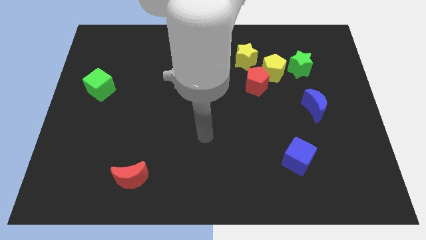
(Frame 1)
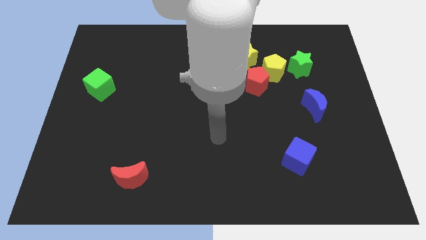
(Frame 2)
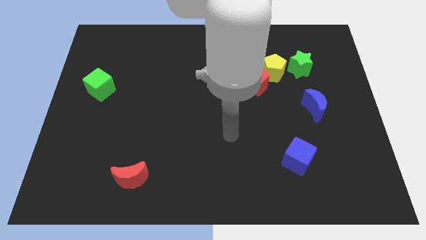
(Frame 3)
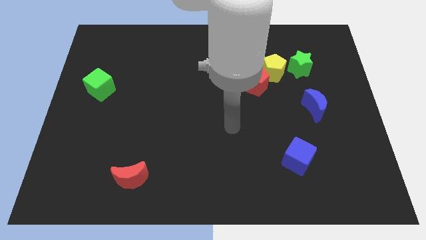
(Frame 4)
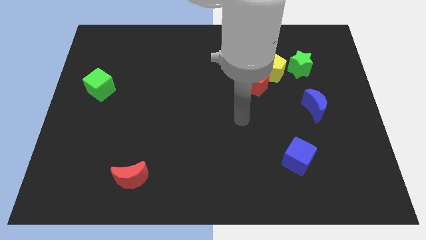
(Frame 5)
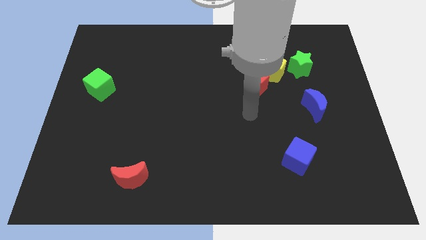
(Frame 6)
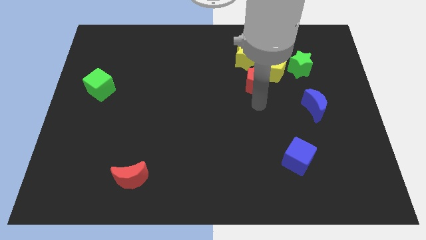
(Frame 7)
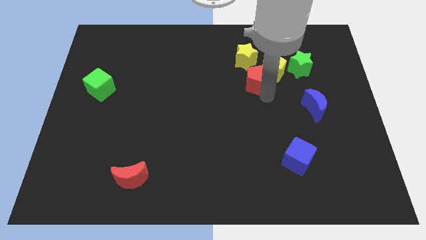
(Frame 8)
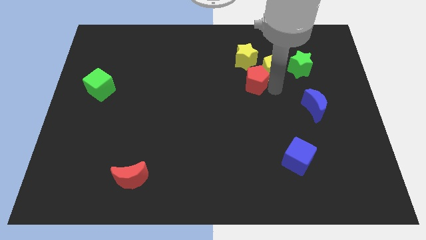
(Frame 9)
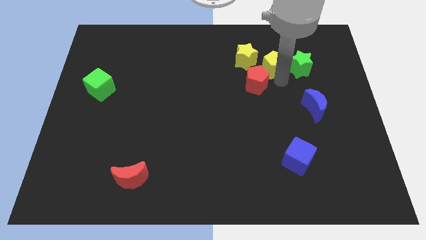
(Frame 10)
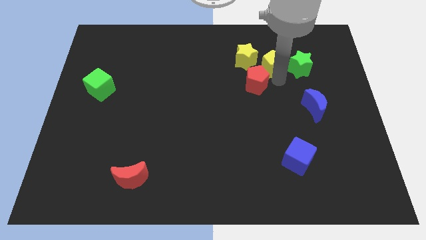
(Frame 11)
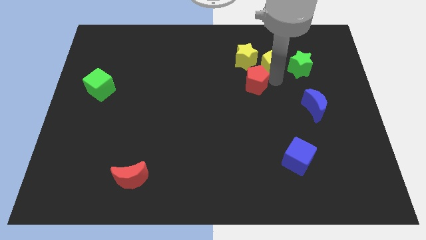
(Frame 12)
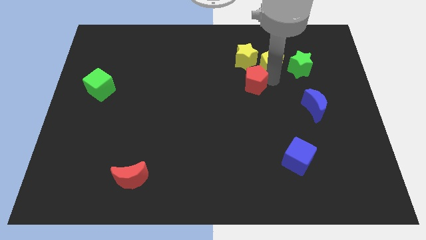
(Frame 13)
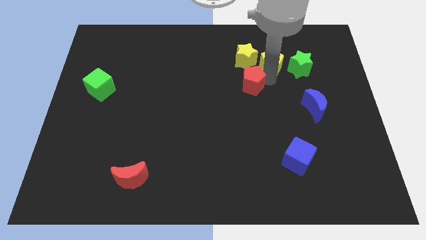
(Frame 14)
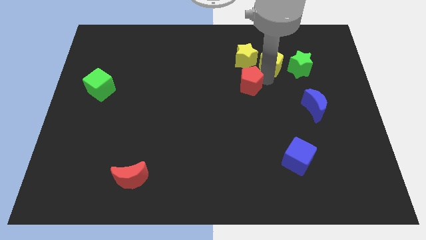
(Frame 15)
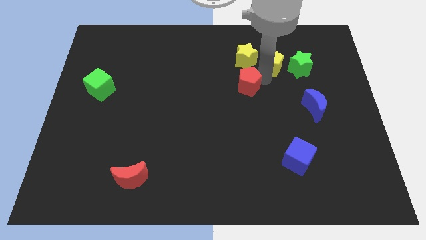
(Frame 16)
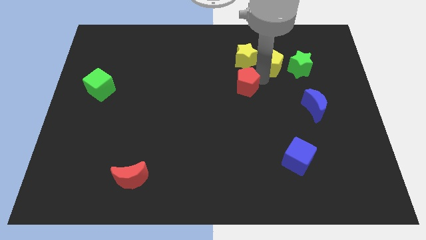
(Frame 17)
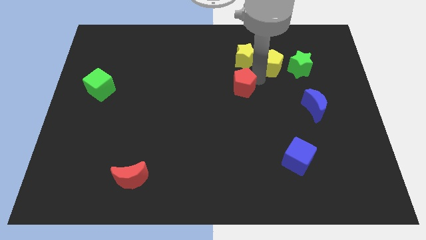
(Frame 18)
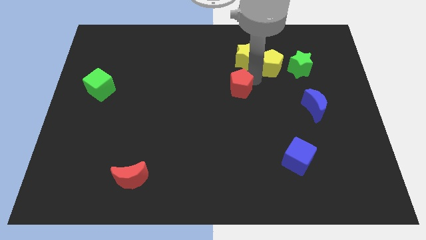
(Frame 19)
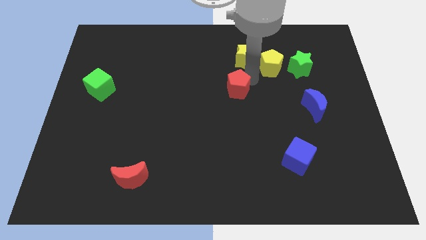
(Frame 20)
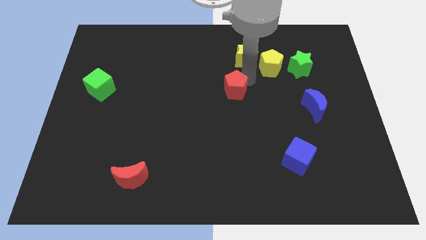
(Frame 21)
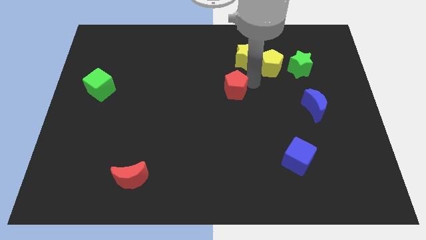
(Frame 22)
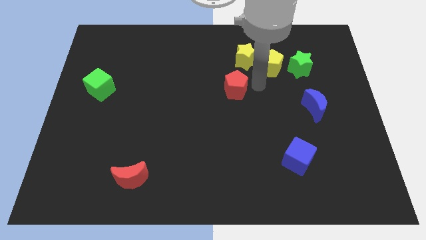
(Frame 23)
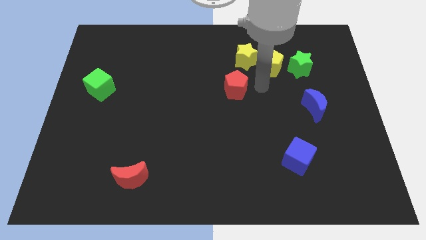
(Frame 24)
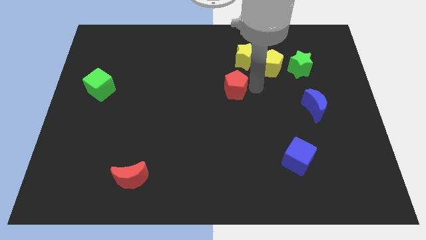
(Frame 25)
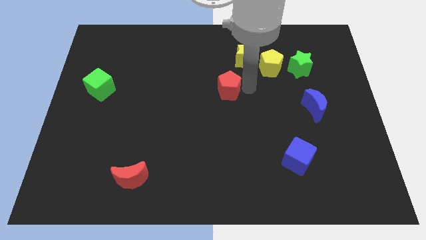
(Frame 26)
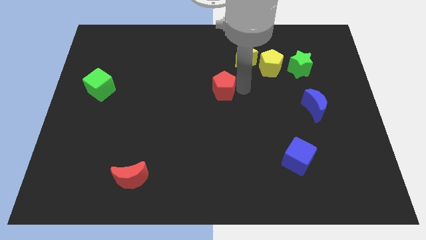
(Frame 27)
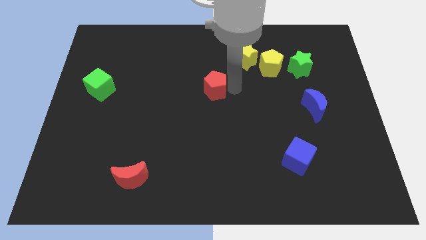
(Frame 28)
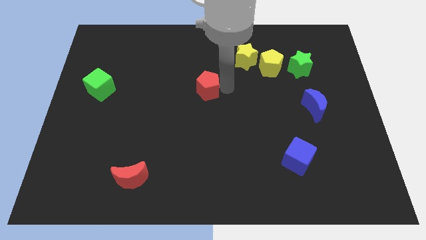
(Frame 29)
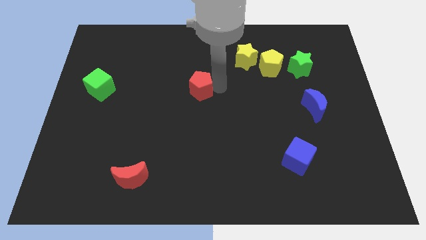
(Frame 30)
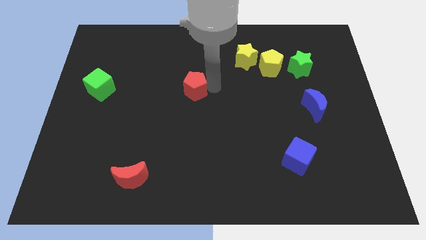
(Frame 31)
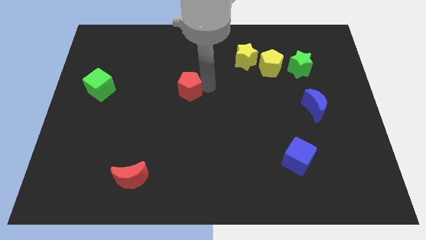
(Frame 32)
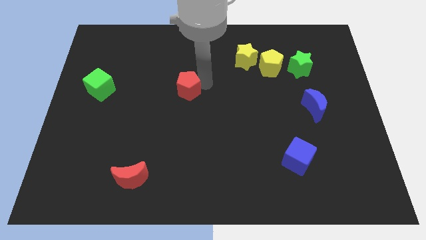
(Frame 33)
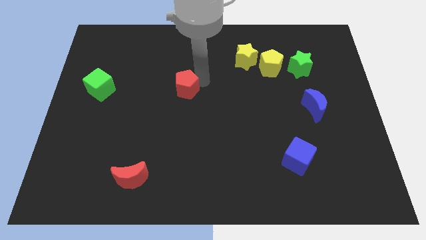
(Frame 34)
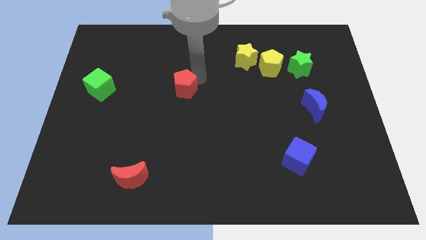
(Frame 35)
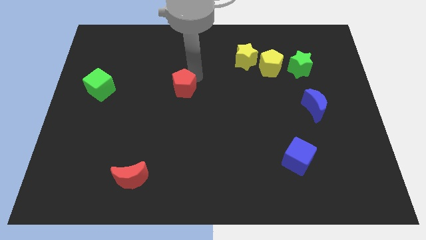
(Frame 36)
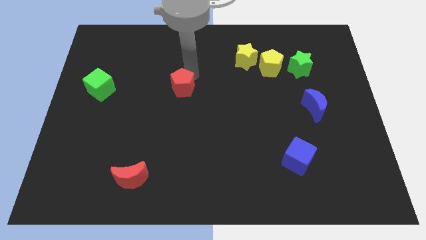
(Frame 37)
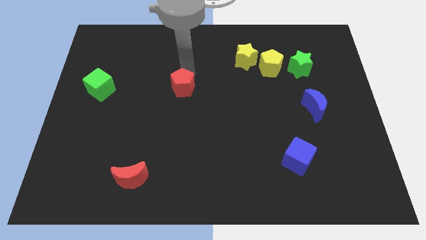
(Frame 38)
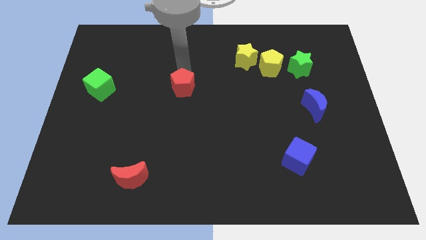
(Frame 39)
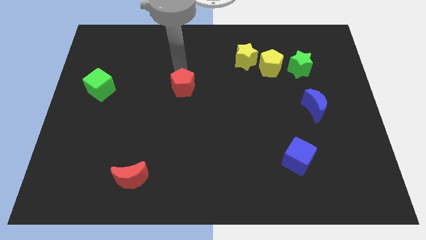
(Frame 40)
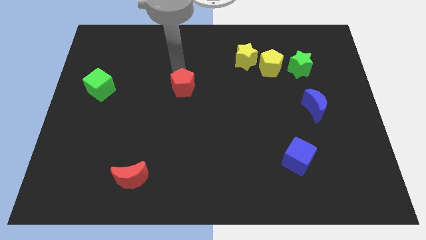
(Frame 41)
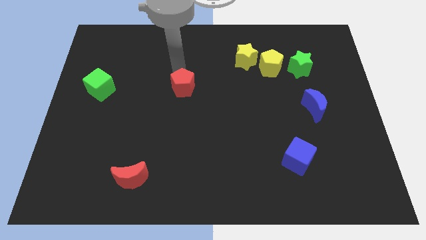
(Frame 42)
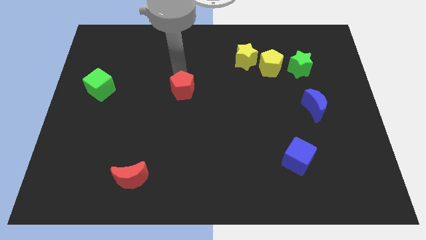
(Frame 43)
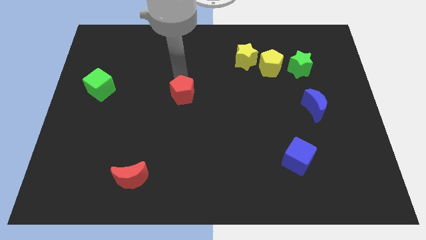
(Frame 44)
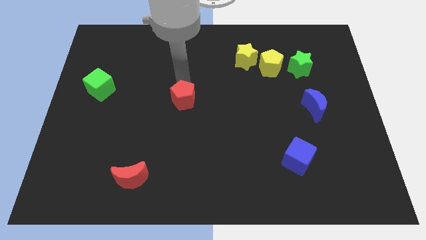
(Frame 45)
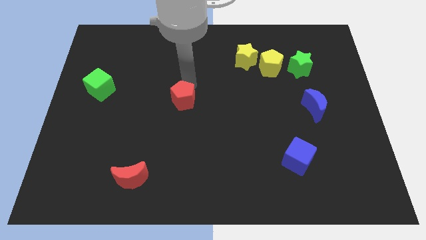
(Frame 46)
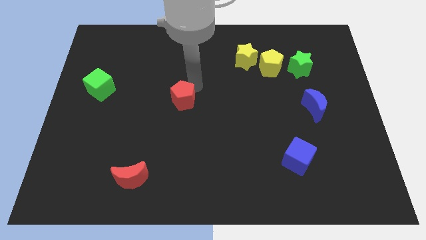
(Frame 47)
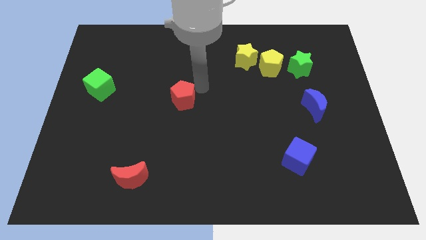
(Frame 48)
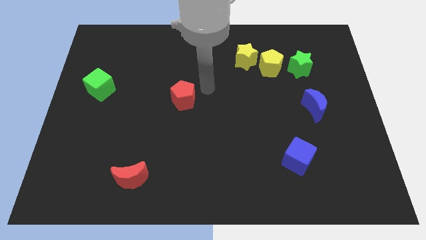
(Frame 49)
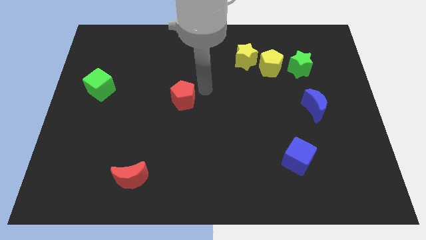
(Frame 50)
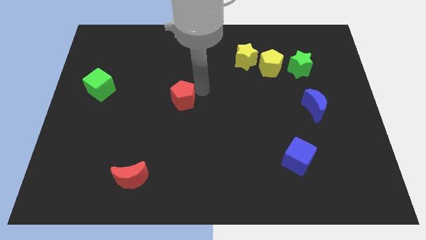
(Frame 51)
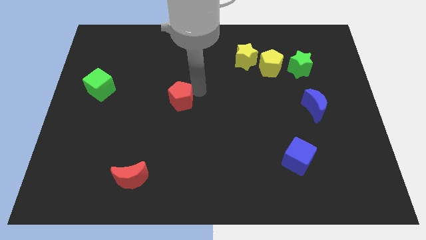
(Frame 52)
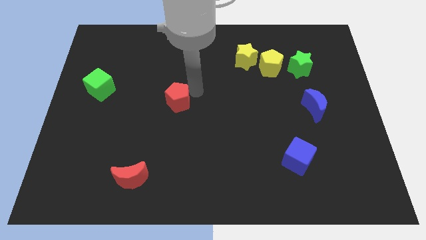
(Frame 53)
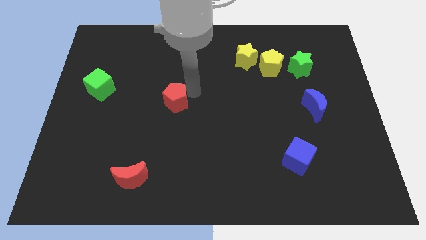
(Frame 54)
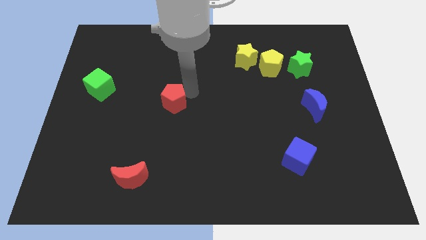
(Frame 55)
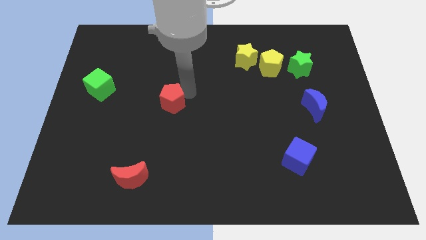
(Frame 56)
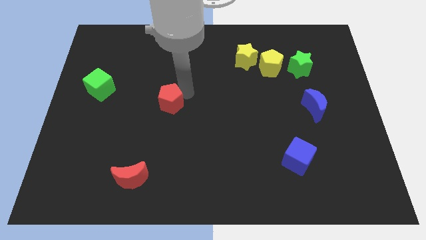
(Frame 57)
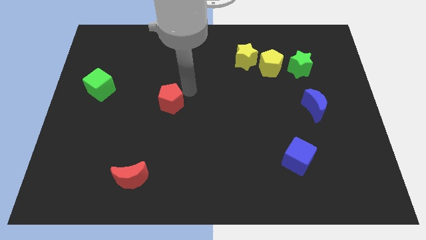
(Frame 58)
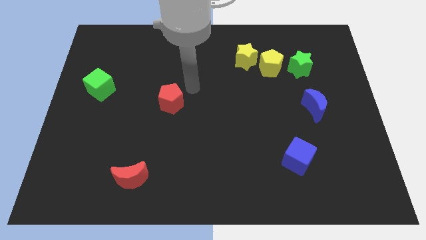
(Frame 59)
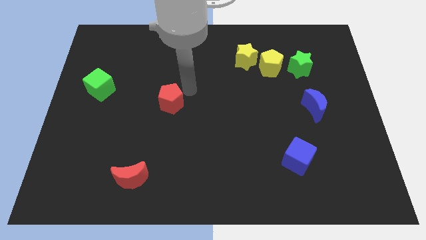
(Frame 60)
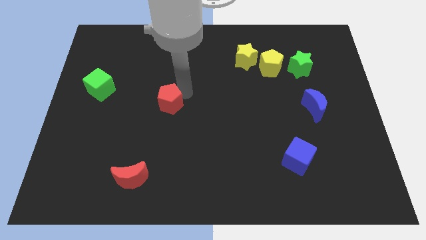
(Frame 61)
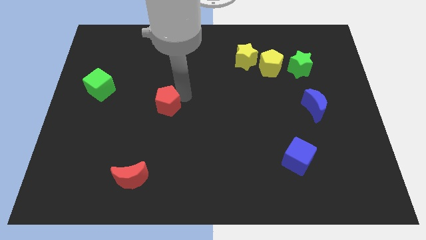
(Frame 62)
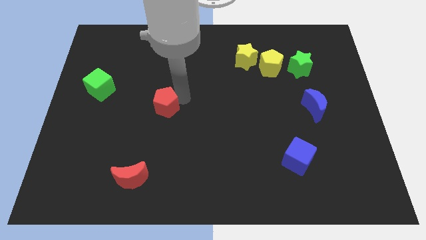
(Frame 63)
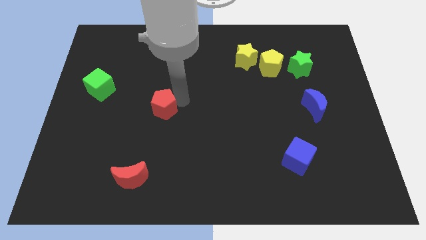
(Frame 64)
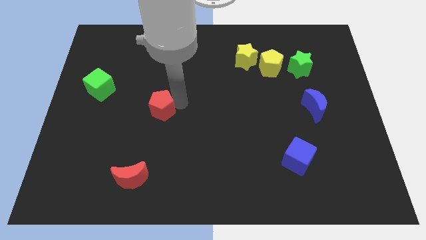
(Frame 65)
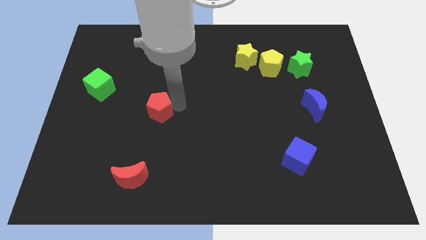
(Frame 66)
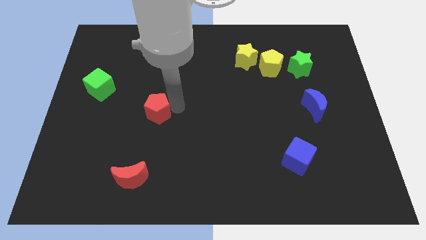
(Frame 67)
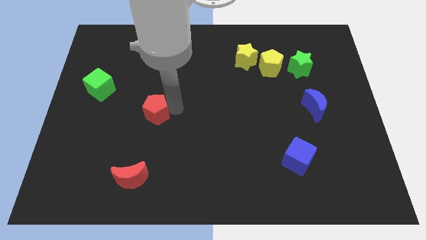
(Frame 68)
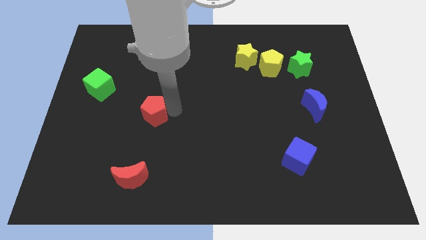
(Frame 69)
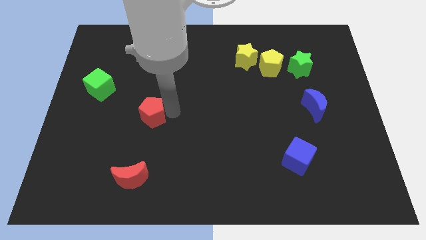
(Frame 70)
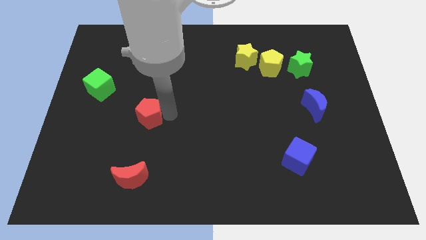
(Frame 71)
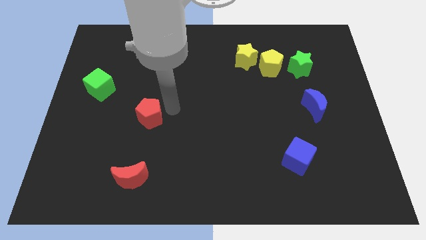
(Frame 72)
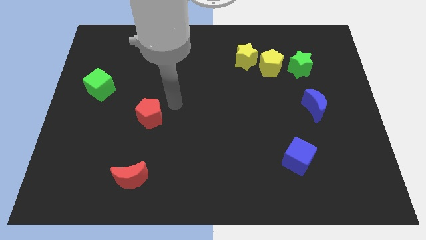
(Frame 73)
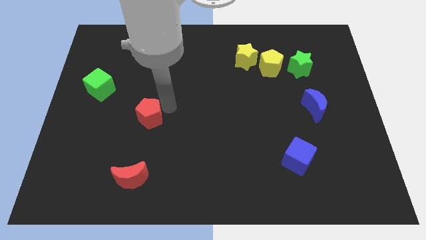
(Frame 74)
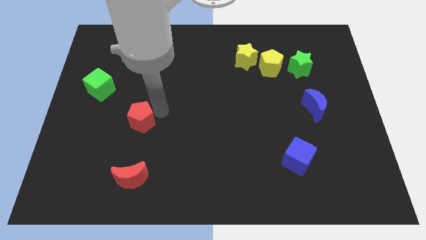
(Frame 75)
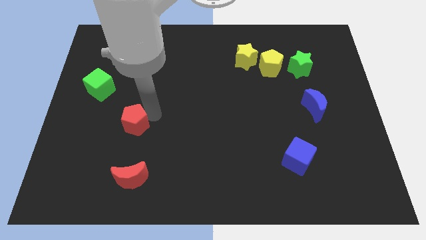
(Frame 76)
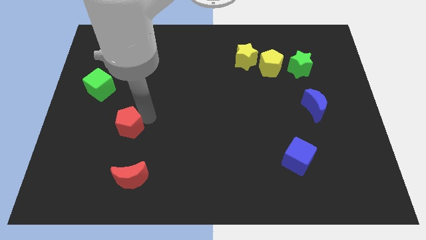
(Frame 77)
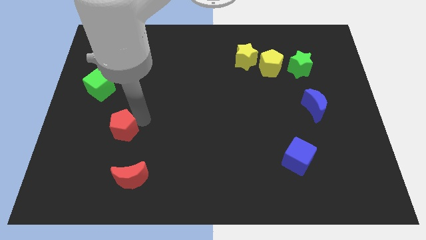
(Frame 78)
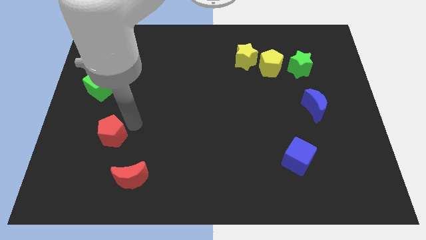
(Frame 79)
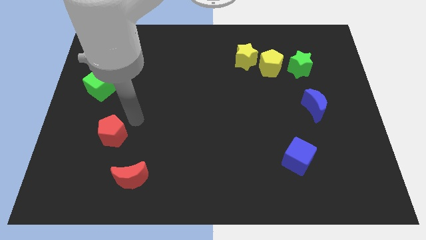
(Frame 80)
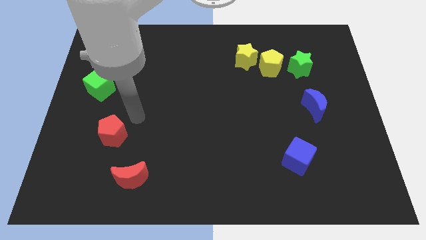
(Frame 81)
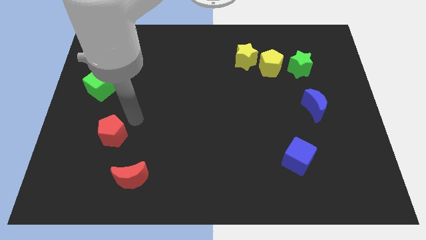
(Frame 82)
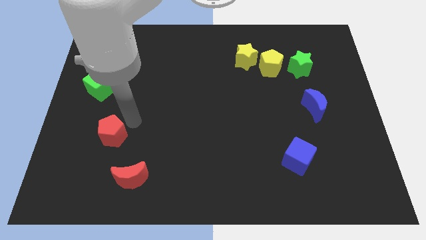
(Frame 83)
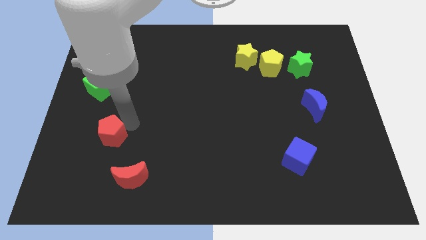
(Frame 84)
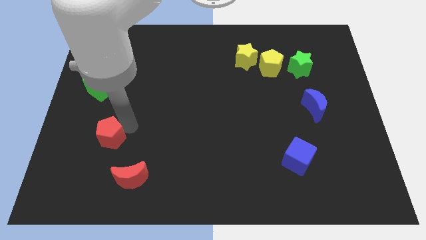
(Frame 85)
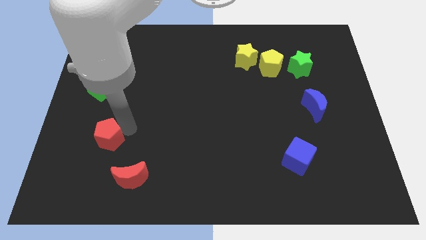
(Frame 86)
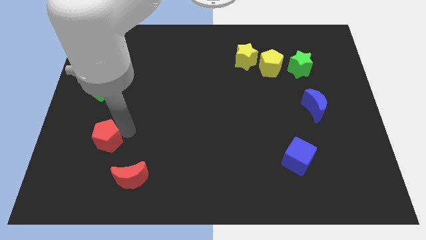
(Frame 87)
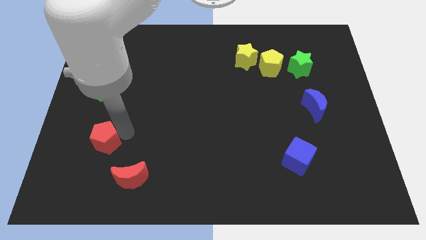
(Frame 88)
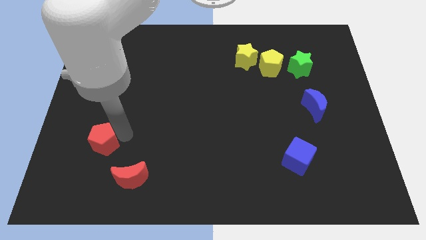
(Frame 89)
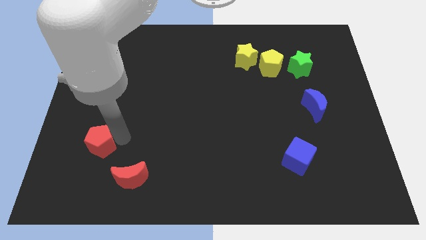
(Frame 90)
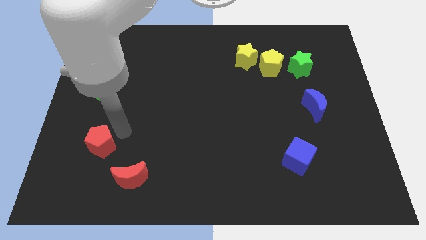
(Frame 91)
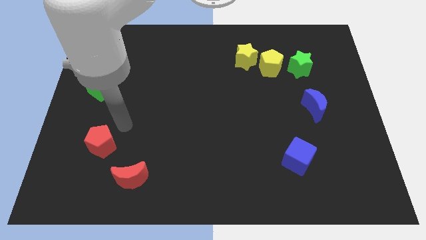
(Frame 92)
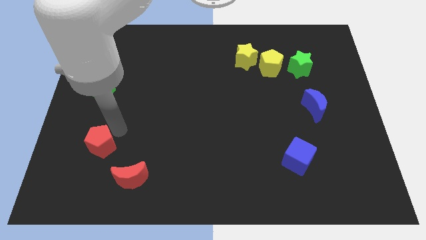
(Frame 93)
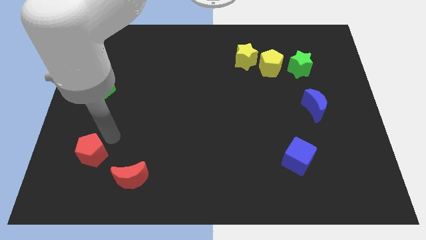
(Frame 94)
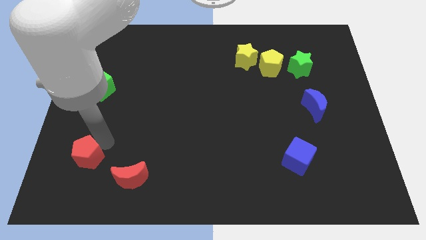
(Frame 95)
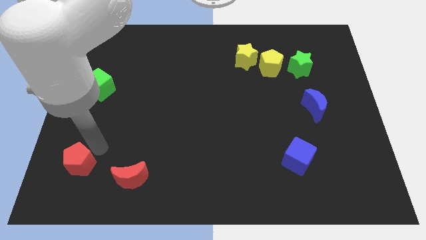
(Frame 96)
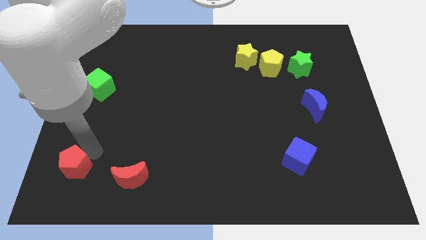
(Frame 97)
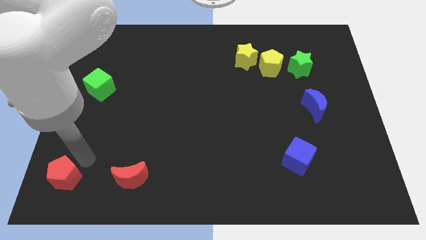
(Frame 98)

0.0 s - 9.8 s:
put the red pentagon to the bottom left corner
